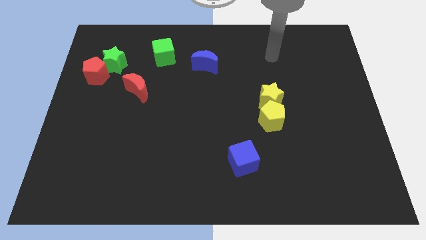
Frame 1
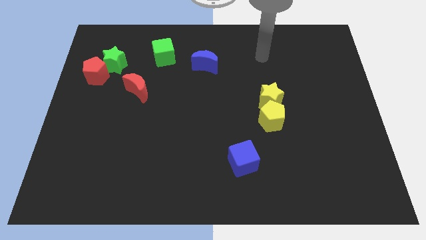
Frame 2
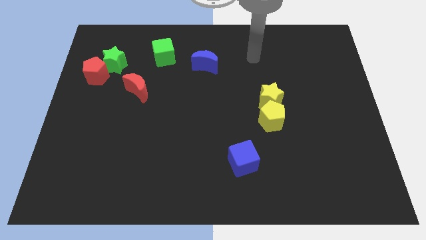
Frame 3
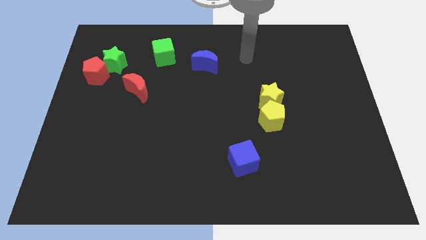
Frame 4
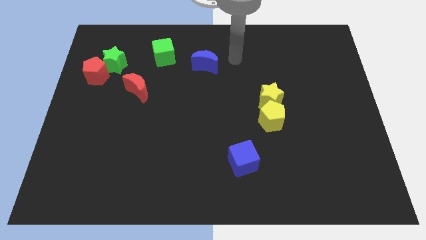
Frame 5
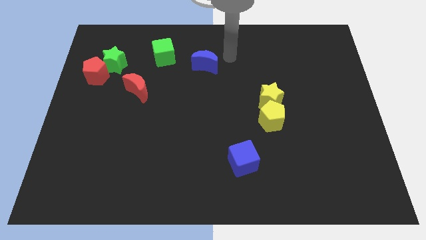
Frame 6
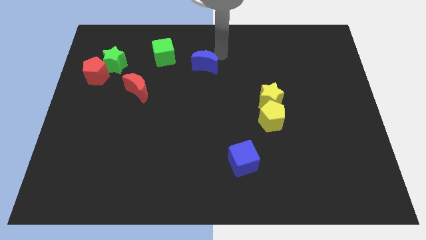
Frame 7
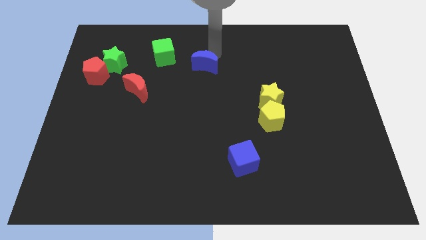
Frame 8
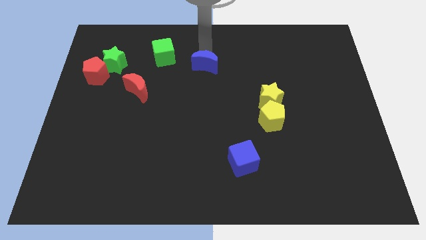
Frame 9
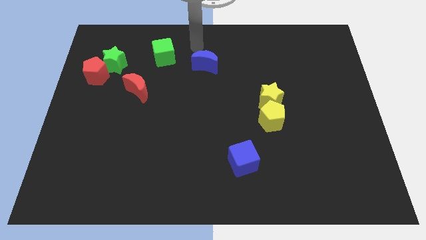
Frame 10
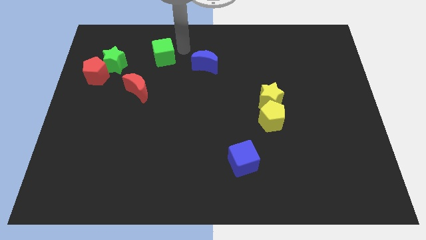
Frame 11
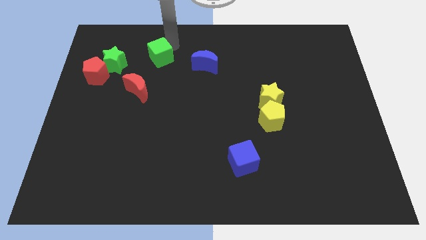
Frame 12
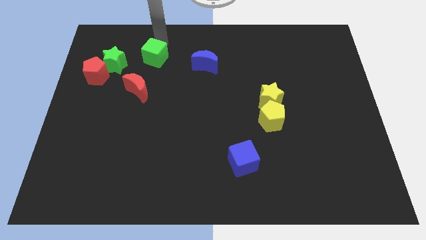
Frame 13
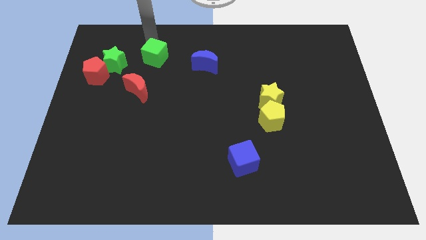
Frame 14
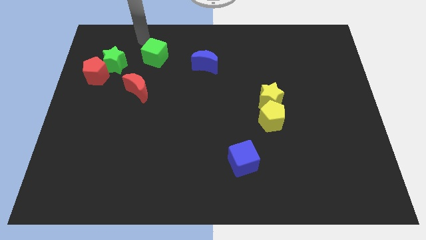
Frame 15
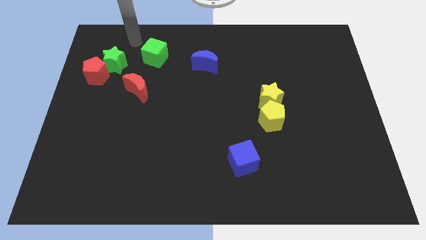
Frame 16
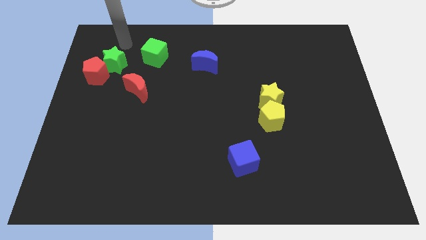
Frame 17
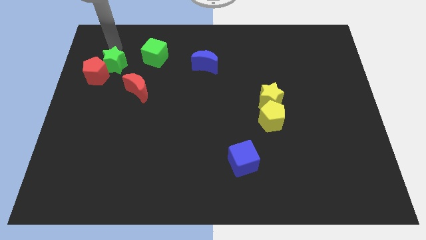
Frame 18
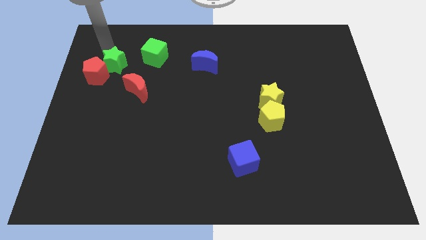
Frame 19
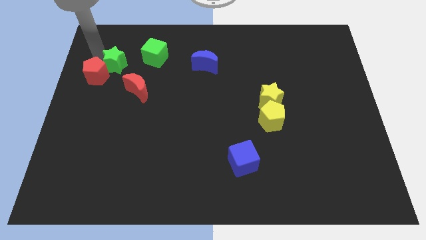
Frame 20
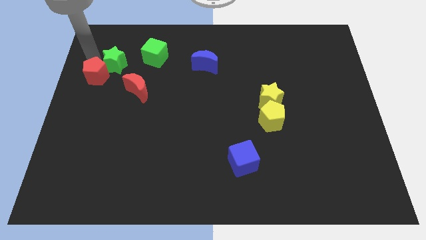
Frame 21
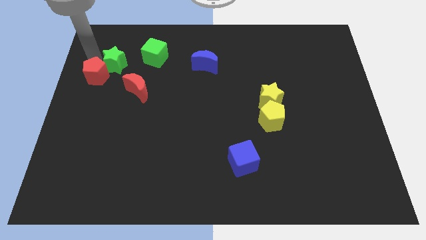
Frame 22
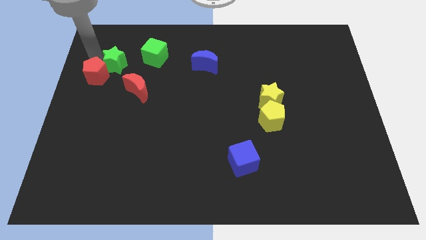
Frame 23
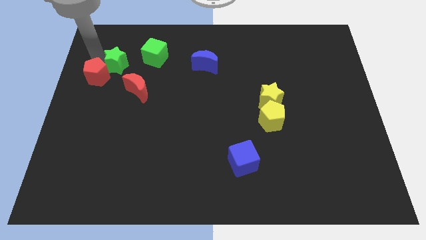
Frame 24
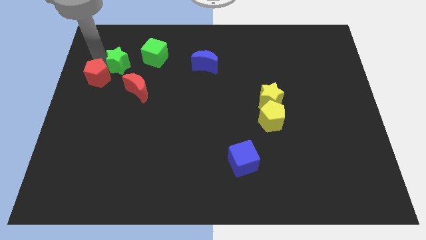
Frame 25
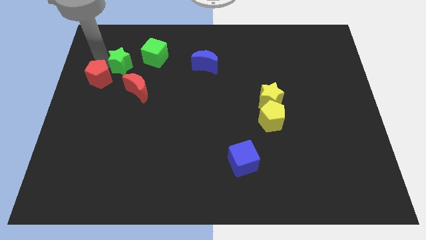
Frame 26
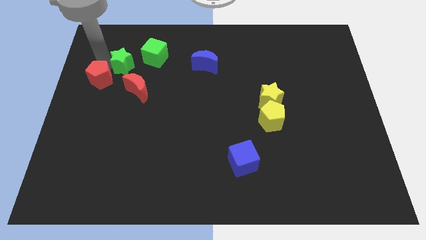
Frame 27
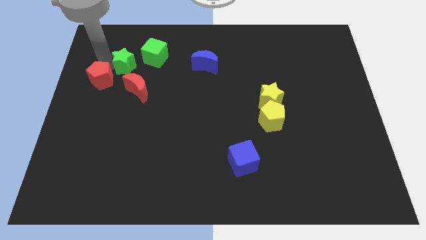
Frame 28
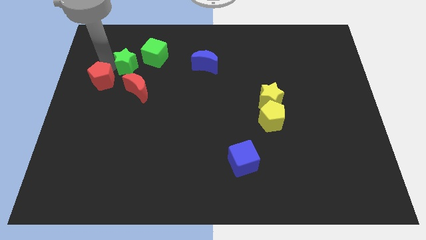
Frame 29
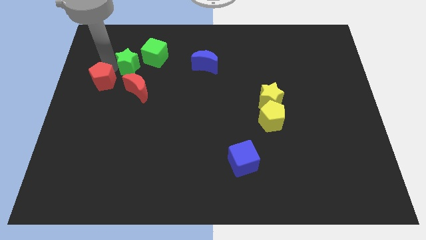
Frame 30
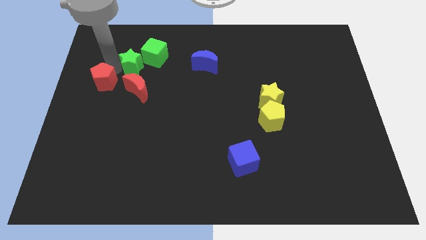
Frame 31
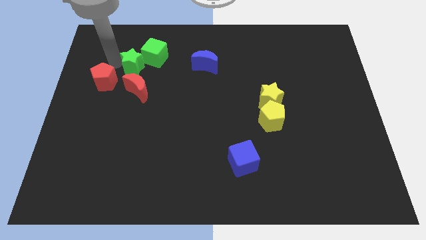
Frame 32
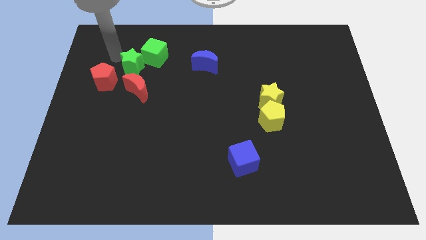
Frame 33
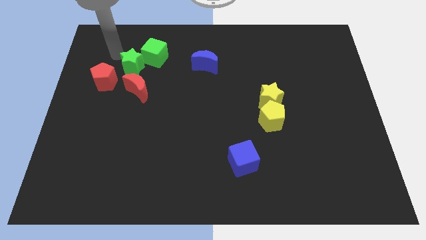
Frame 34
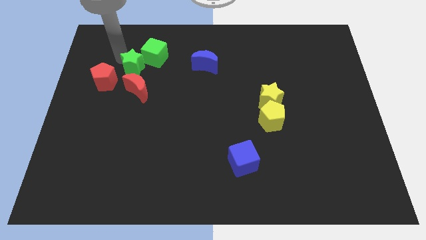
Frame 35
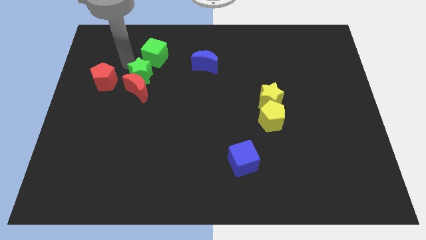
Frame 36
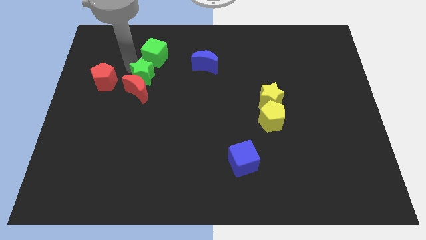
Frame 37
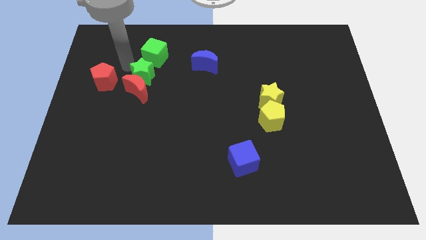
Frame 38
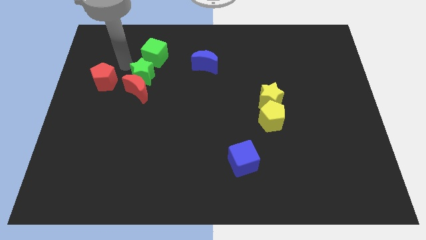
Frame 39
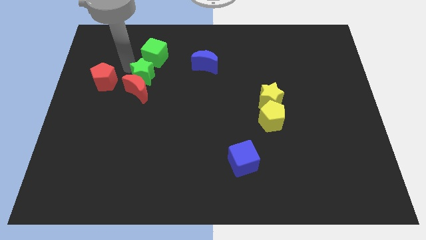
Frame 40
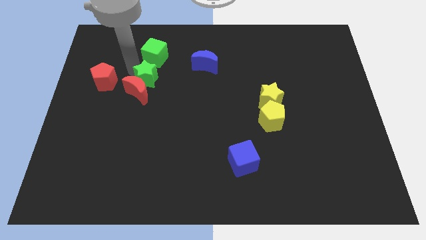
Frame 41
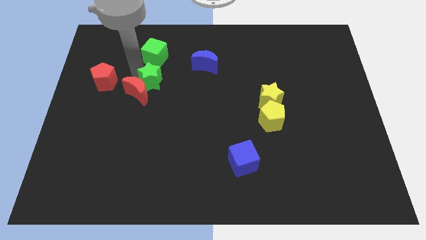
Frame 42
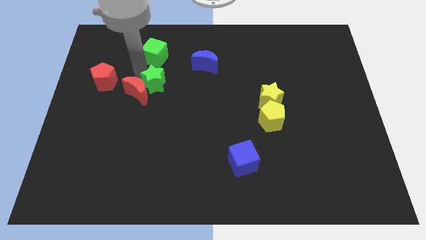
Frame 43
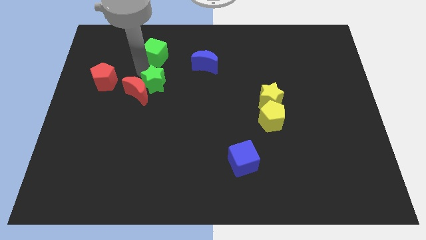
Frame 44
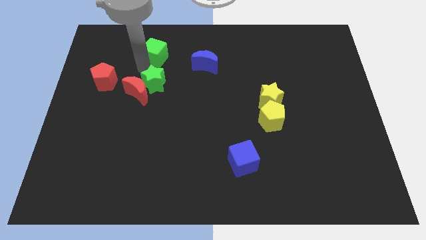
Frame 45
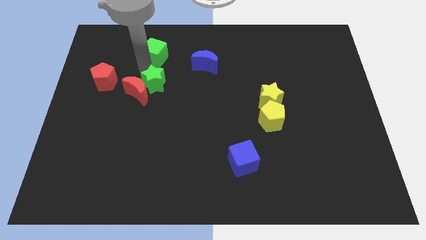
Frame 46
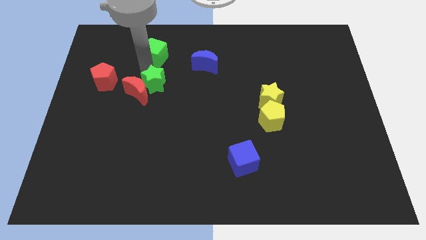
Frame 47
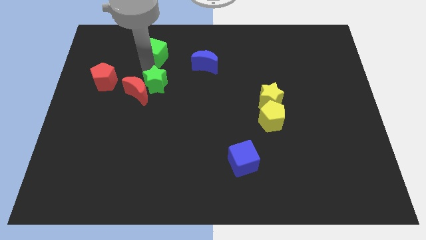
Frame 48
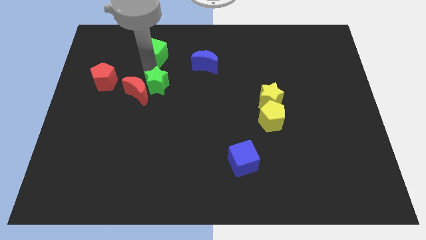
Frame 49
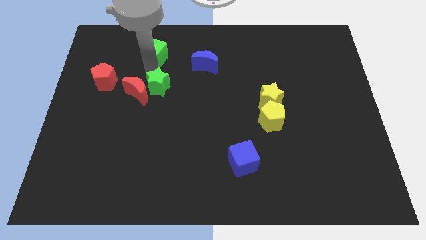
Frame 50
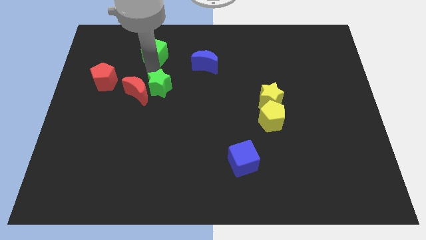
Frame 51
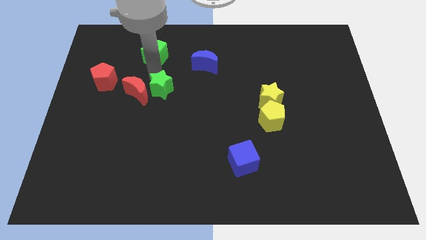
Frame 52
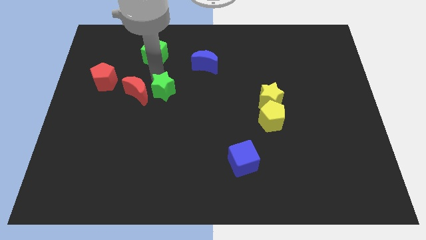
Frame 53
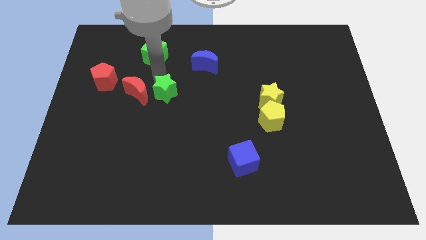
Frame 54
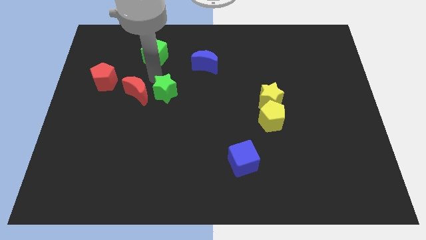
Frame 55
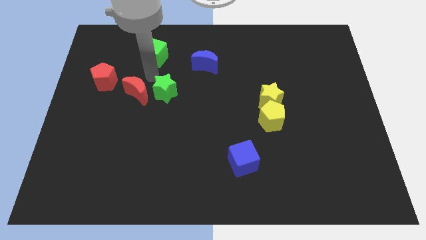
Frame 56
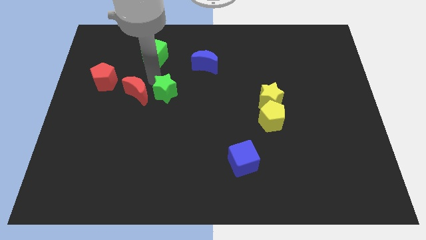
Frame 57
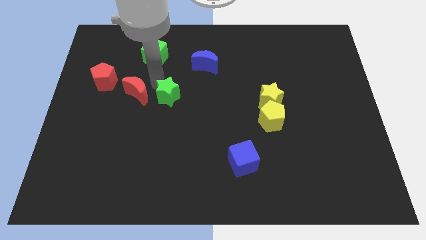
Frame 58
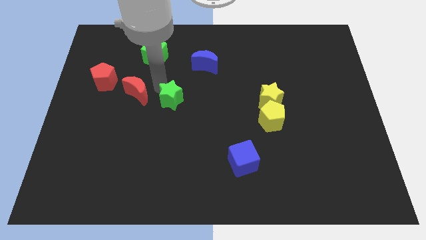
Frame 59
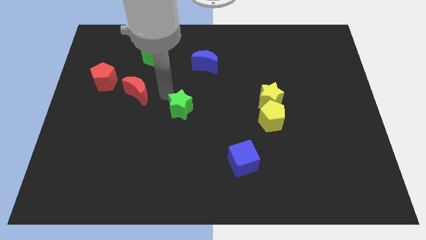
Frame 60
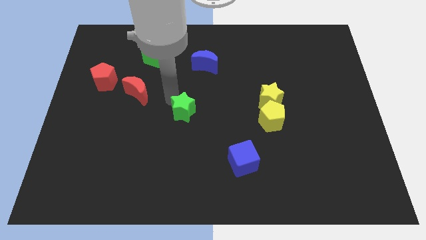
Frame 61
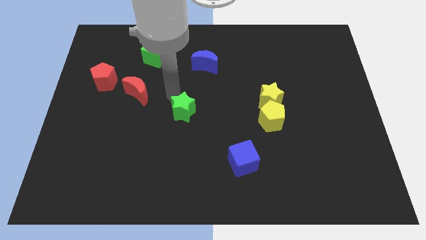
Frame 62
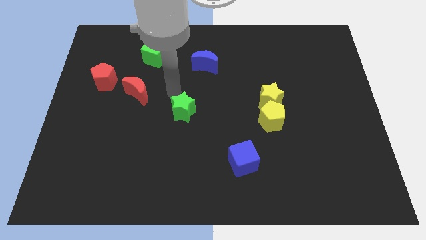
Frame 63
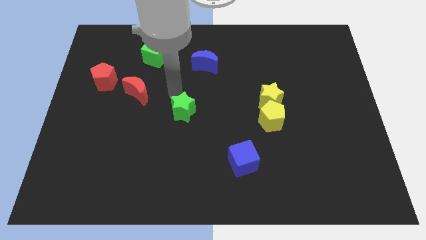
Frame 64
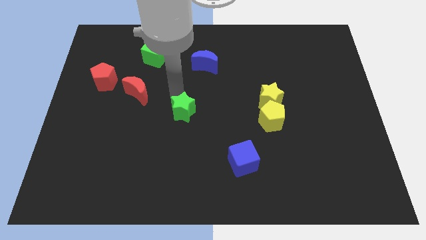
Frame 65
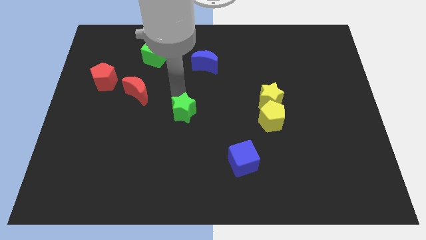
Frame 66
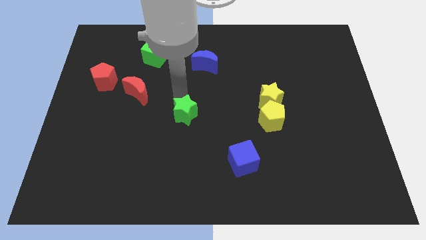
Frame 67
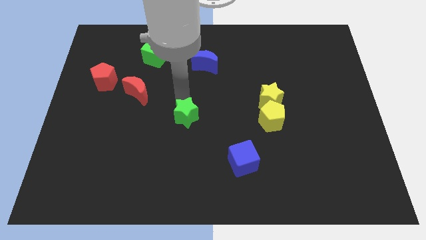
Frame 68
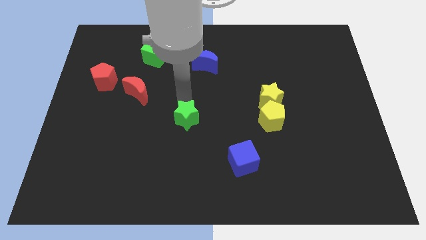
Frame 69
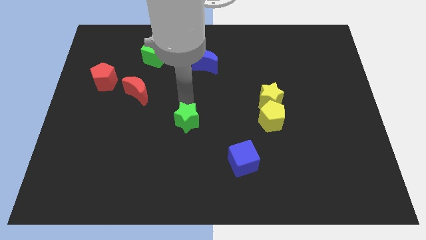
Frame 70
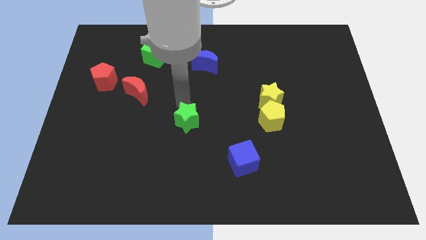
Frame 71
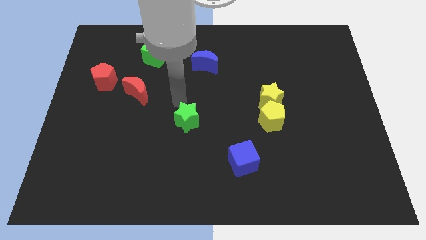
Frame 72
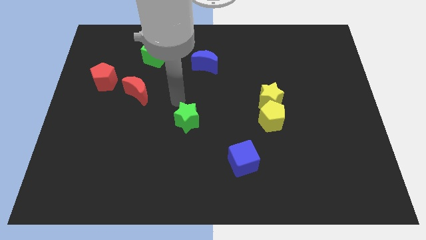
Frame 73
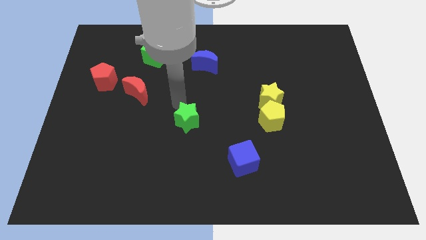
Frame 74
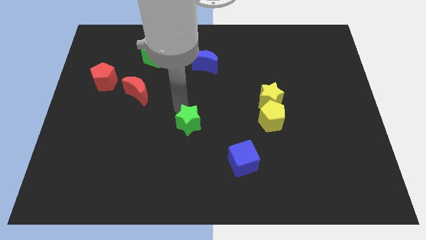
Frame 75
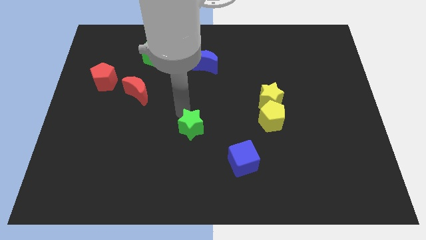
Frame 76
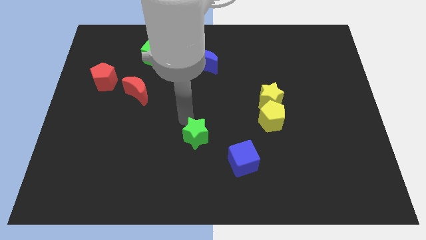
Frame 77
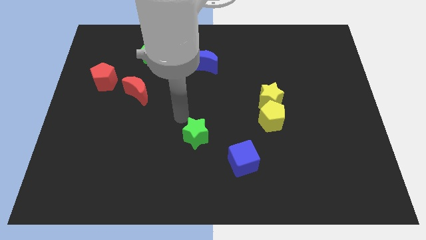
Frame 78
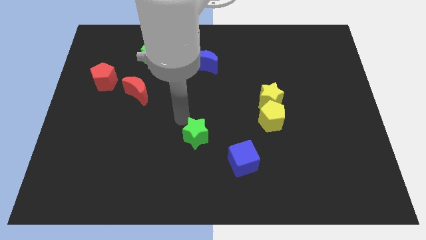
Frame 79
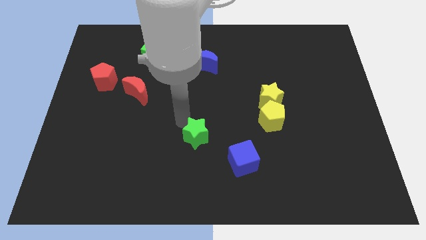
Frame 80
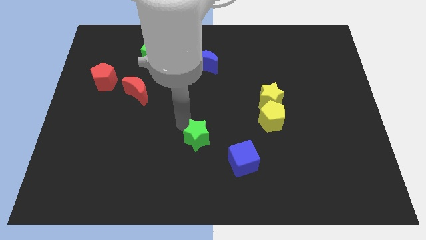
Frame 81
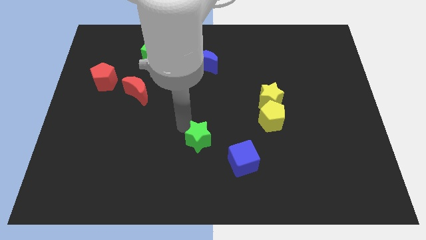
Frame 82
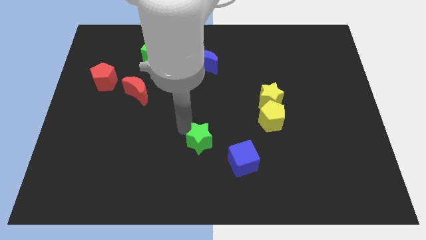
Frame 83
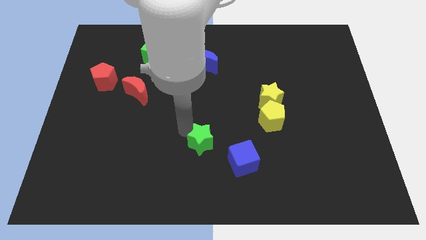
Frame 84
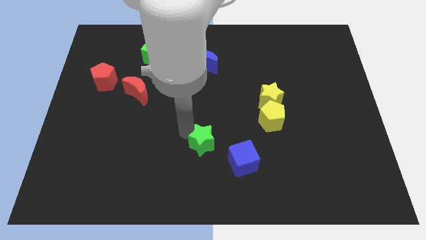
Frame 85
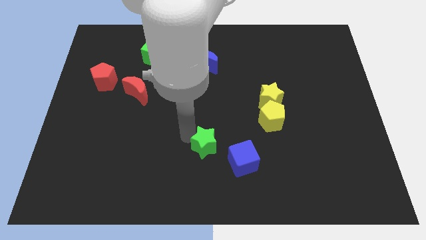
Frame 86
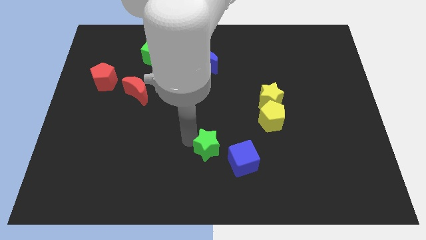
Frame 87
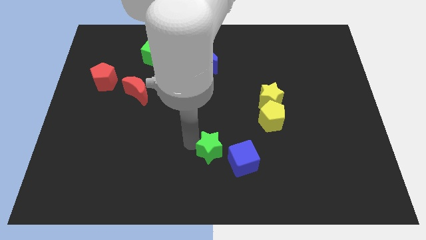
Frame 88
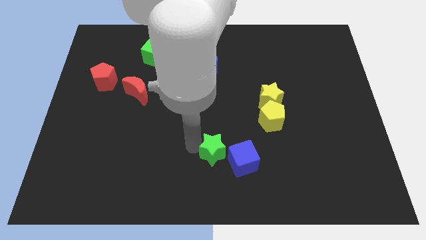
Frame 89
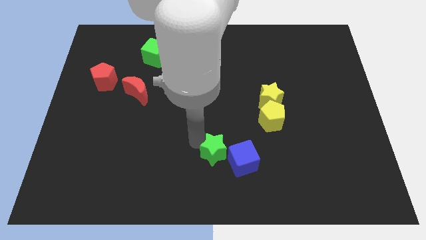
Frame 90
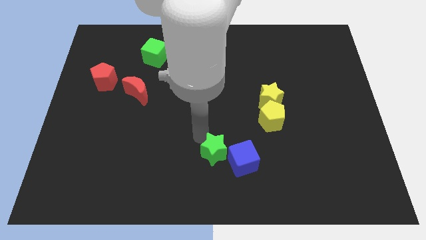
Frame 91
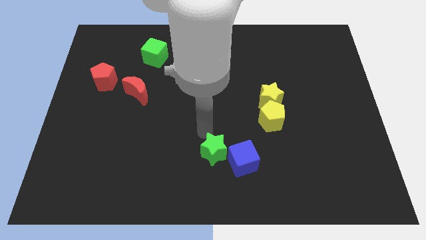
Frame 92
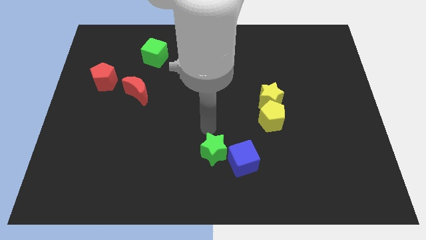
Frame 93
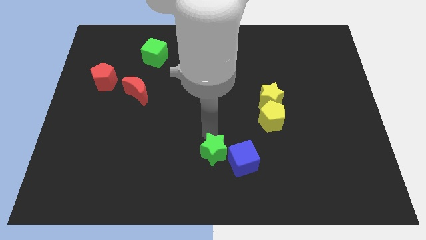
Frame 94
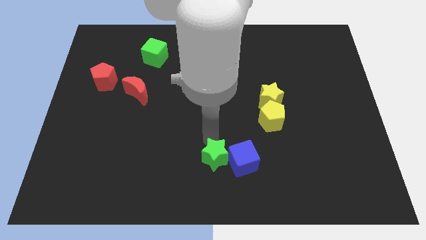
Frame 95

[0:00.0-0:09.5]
slide the green star diagonally down and to the left of the blue cube
